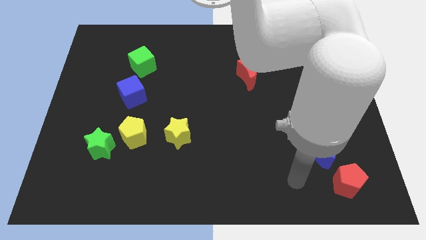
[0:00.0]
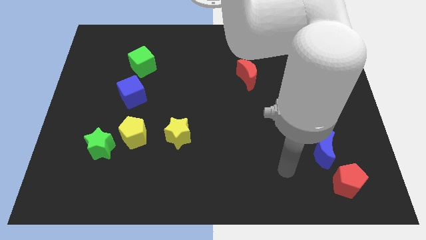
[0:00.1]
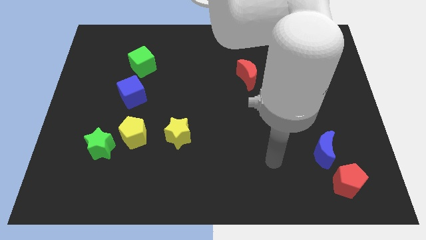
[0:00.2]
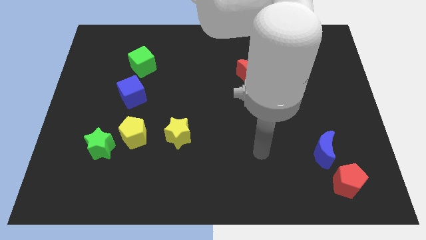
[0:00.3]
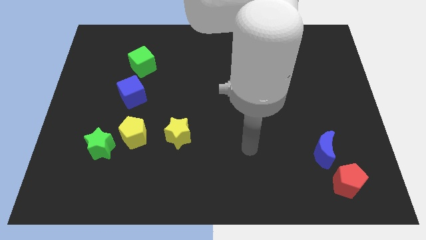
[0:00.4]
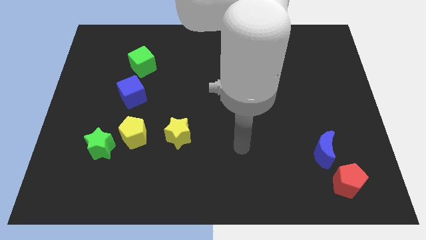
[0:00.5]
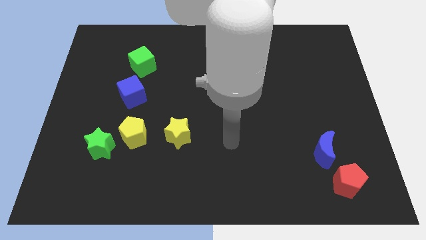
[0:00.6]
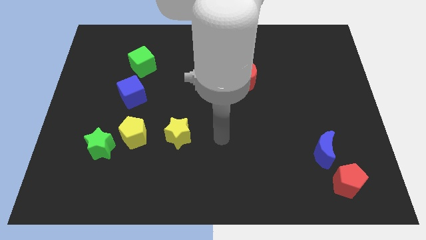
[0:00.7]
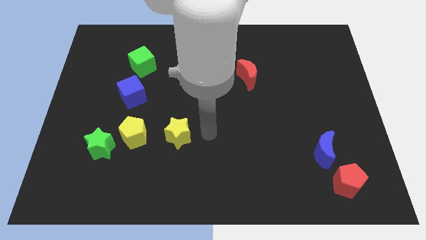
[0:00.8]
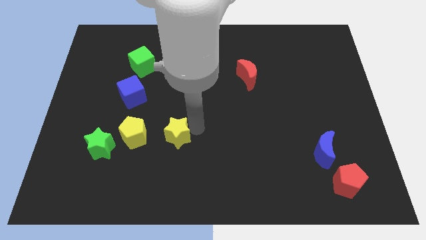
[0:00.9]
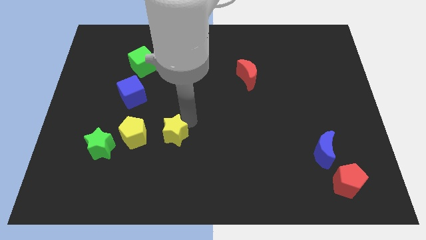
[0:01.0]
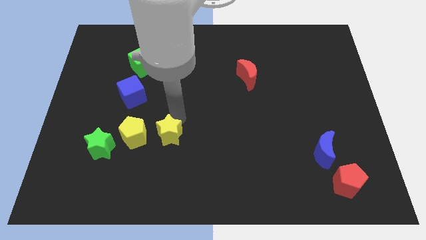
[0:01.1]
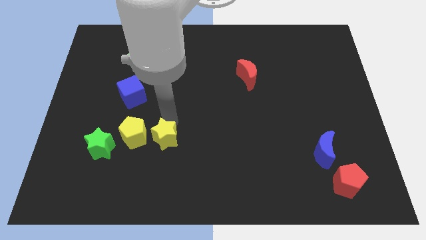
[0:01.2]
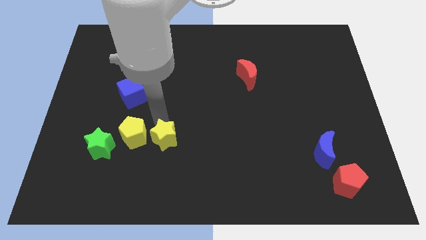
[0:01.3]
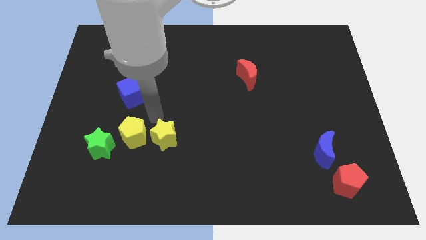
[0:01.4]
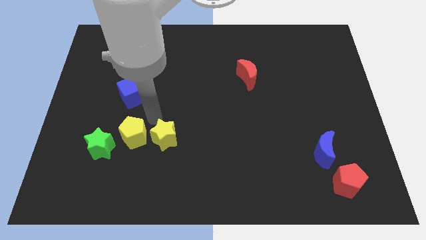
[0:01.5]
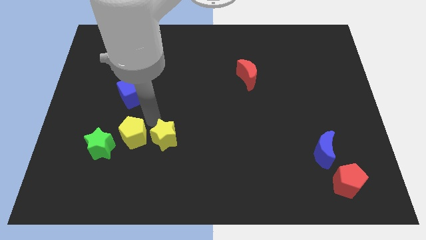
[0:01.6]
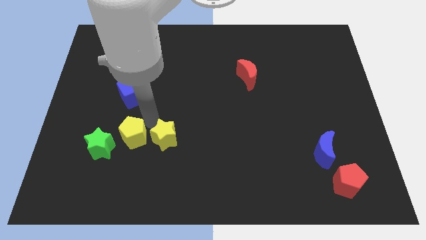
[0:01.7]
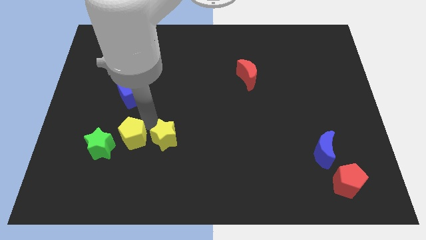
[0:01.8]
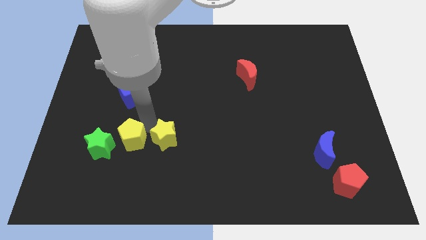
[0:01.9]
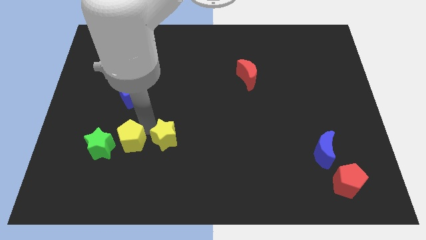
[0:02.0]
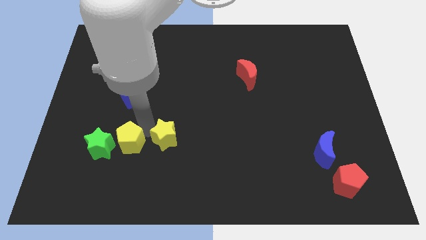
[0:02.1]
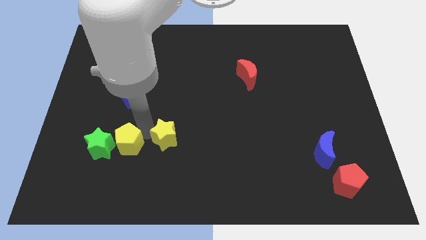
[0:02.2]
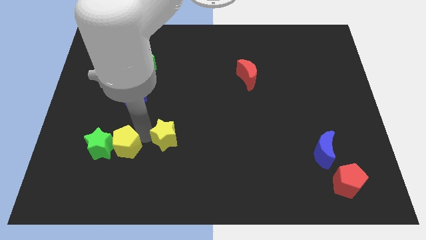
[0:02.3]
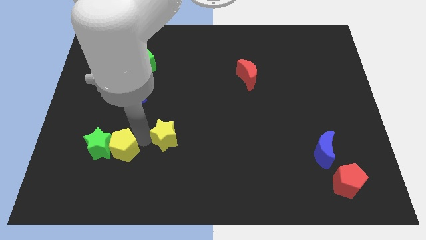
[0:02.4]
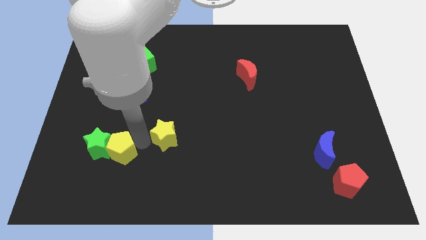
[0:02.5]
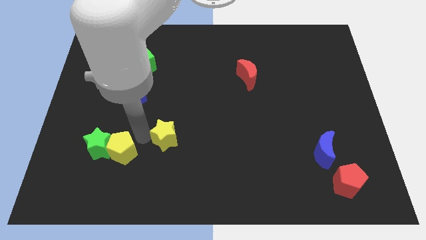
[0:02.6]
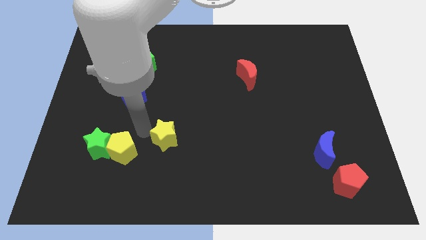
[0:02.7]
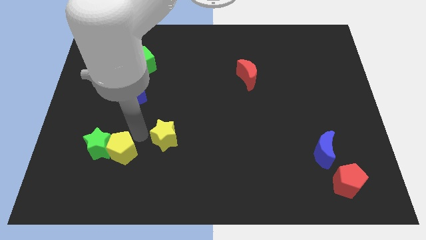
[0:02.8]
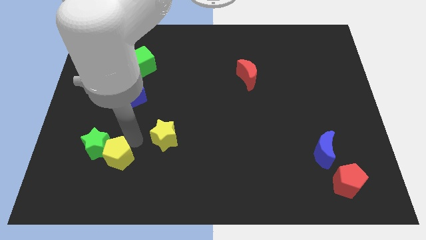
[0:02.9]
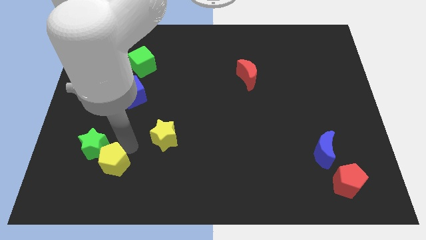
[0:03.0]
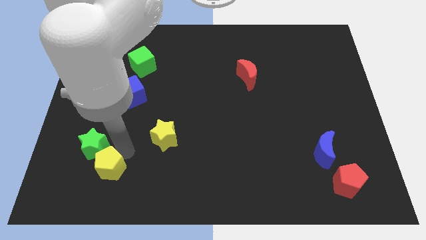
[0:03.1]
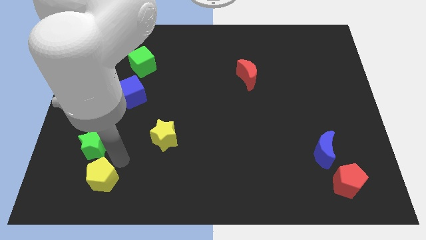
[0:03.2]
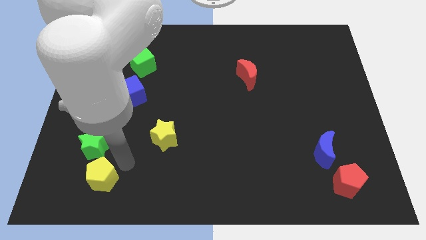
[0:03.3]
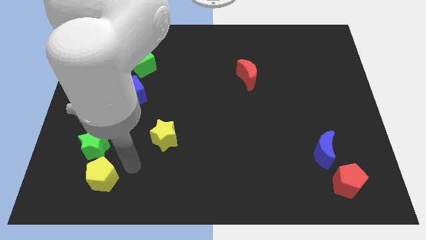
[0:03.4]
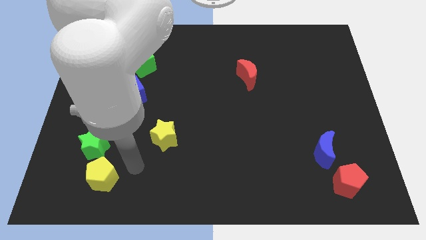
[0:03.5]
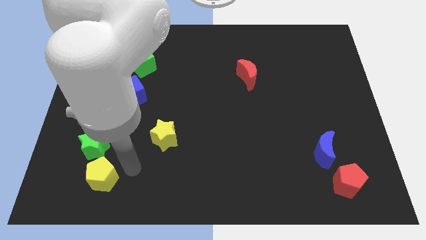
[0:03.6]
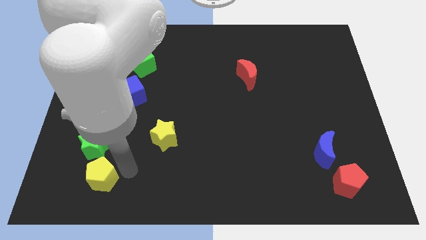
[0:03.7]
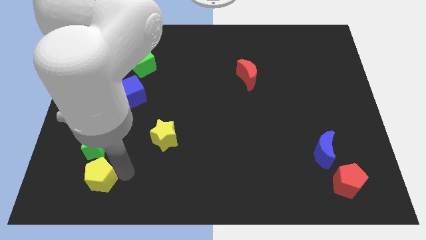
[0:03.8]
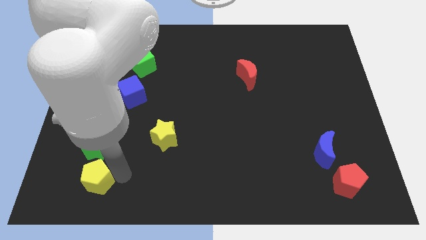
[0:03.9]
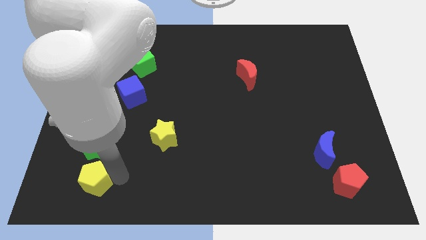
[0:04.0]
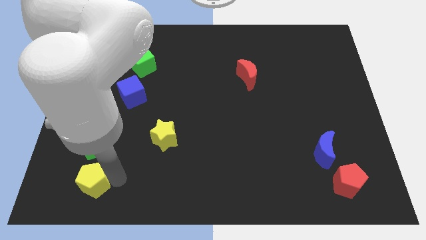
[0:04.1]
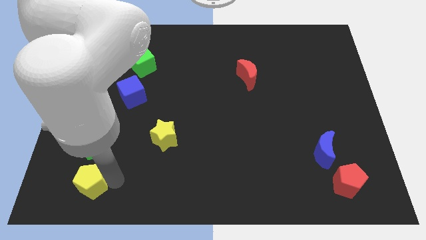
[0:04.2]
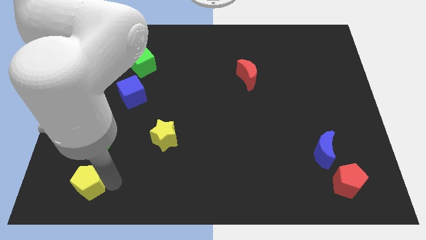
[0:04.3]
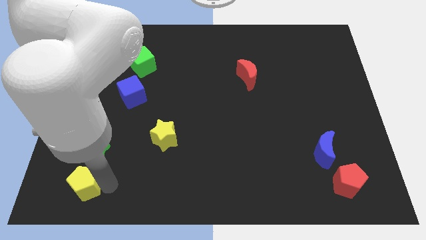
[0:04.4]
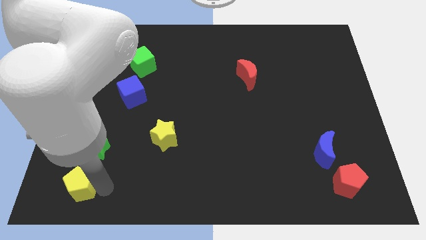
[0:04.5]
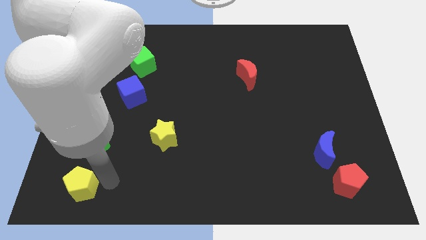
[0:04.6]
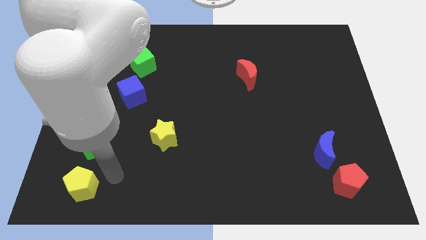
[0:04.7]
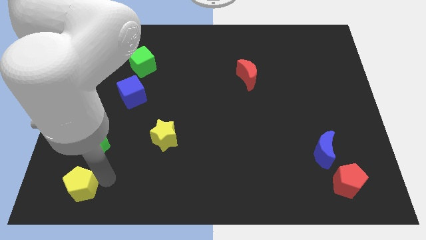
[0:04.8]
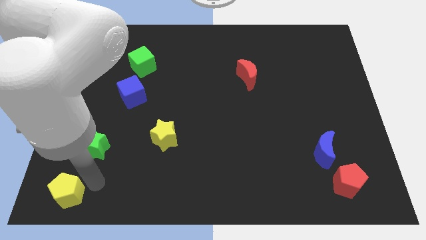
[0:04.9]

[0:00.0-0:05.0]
move the yellow pentagon to the bottom left corner

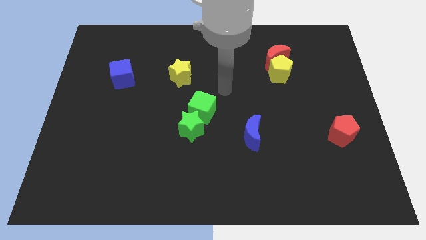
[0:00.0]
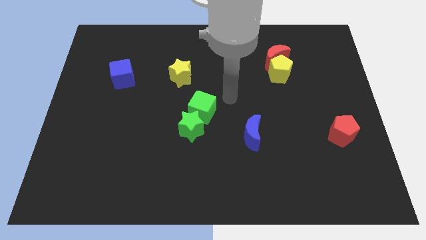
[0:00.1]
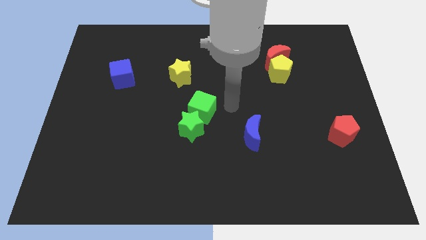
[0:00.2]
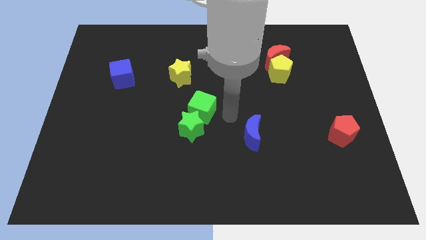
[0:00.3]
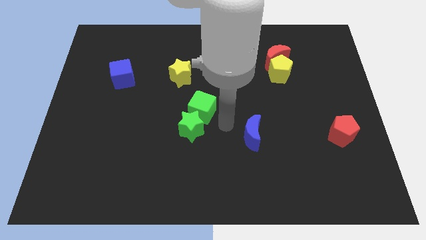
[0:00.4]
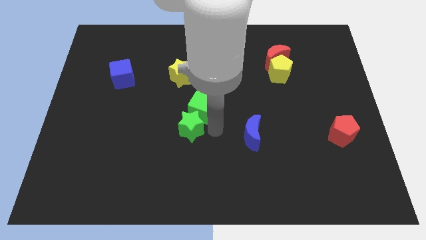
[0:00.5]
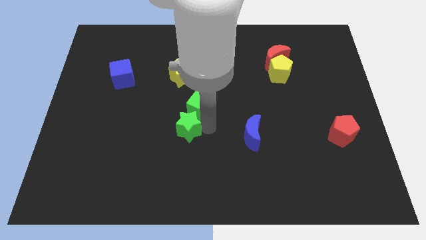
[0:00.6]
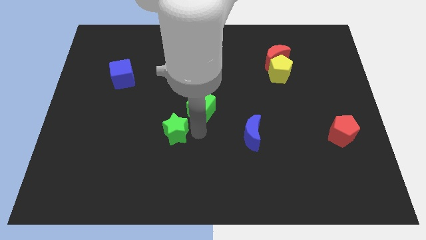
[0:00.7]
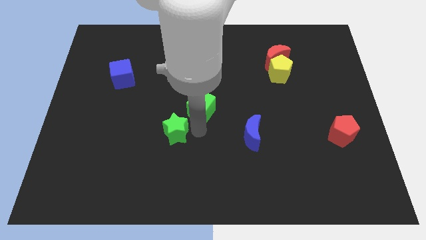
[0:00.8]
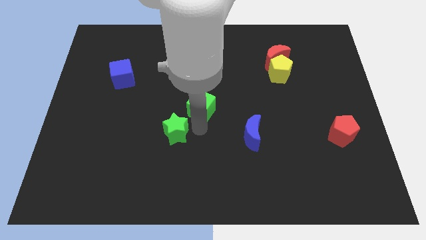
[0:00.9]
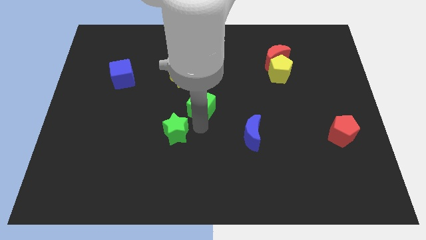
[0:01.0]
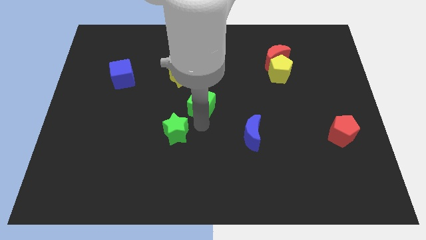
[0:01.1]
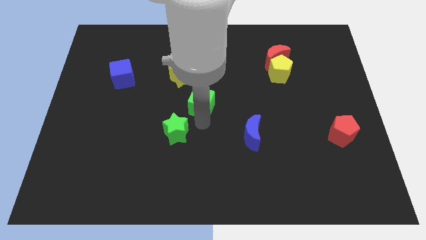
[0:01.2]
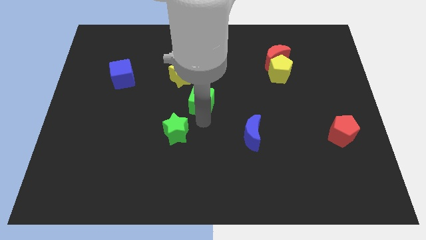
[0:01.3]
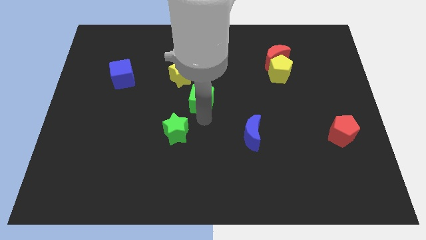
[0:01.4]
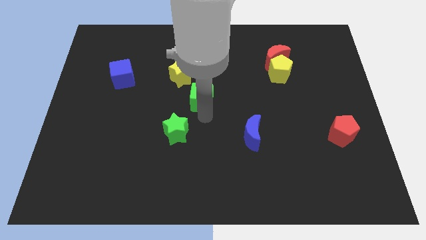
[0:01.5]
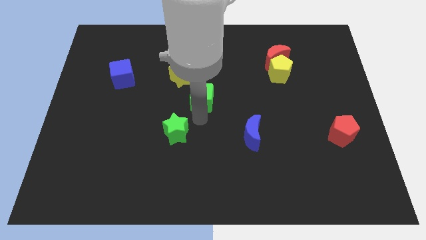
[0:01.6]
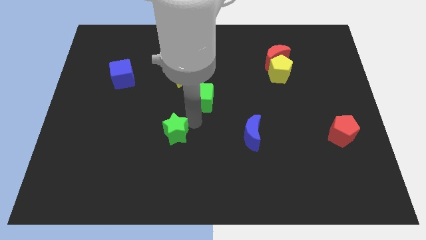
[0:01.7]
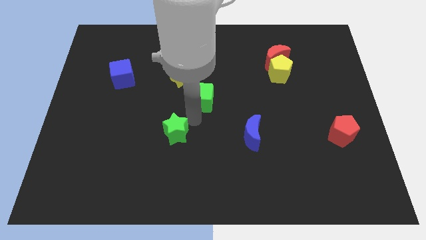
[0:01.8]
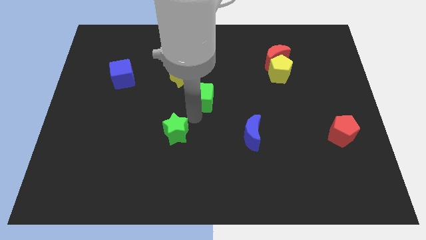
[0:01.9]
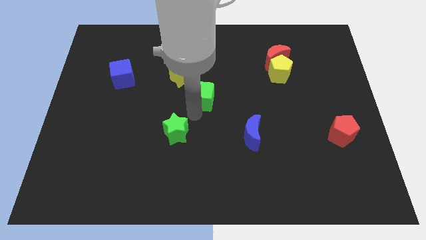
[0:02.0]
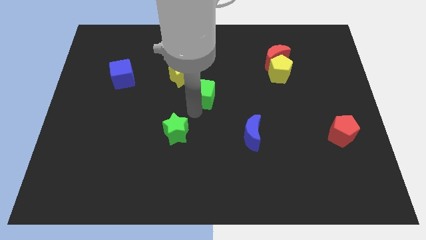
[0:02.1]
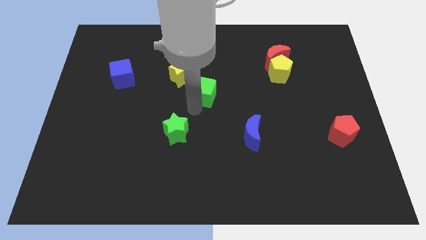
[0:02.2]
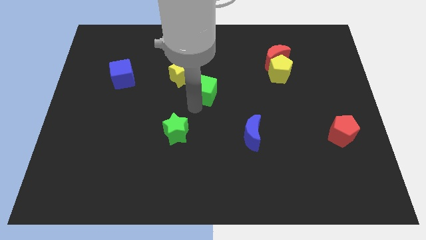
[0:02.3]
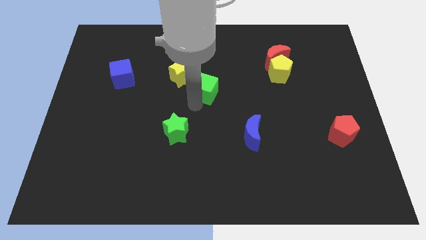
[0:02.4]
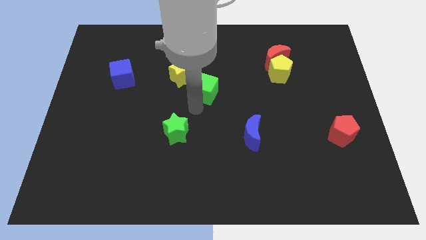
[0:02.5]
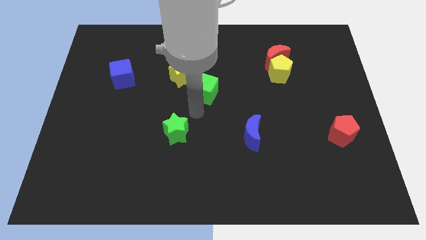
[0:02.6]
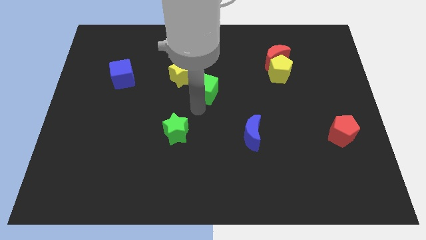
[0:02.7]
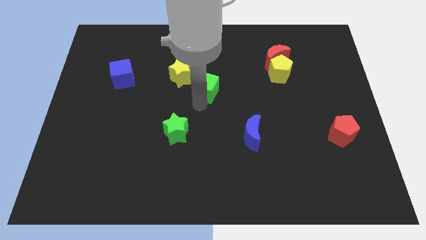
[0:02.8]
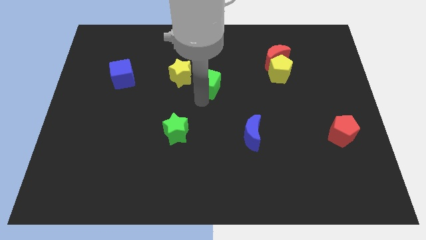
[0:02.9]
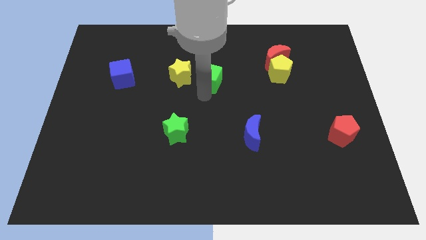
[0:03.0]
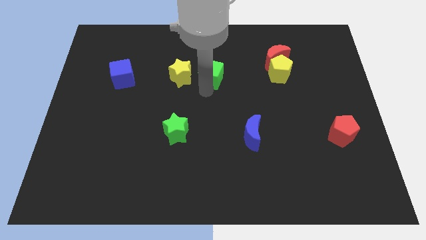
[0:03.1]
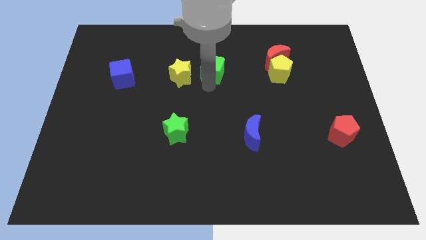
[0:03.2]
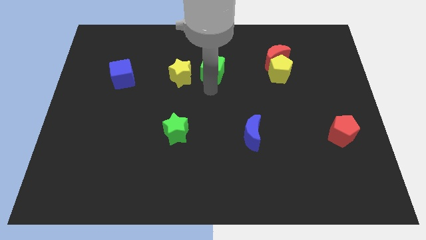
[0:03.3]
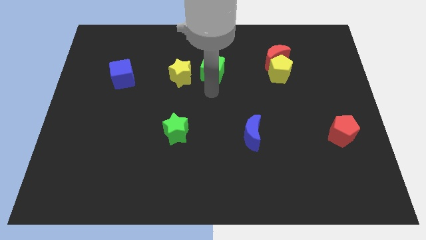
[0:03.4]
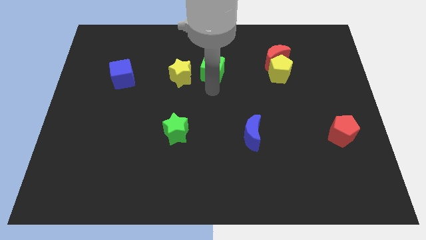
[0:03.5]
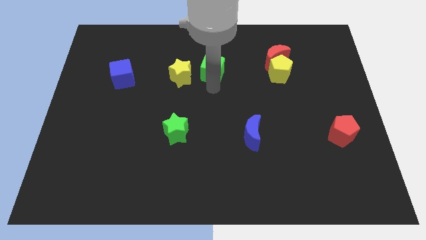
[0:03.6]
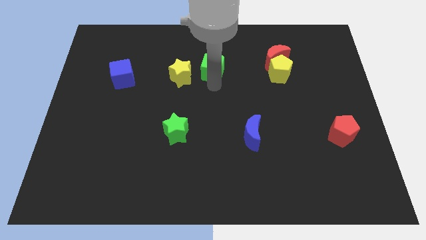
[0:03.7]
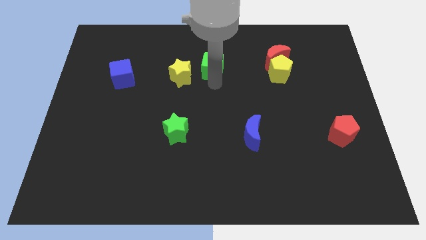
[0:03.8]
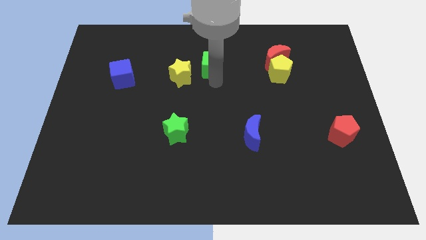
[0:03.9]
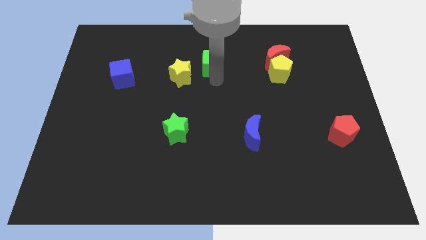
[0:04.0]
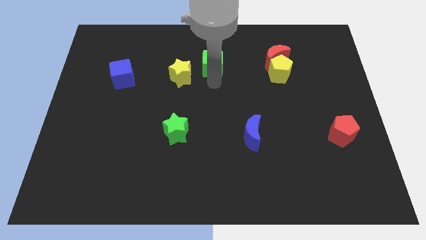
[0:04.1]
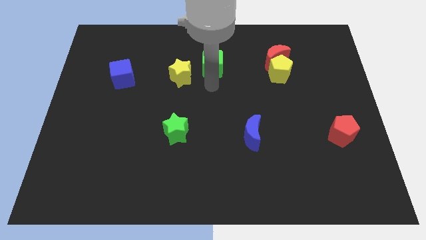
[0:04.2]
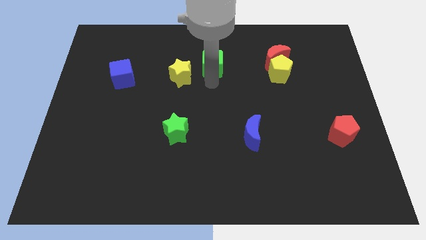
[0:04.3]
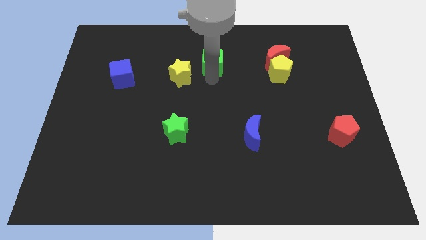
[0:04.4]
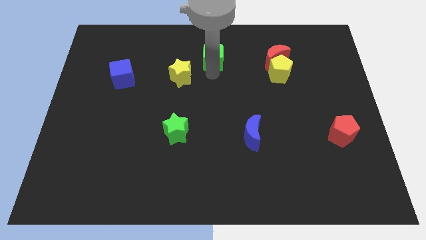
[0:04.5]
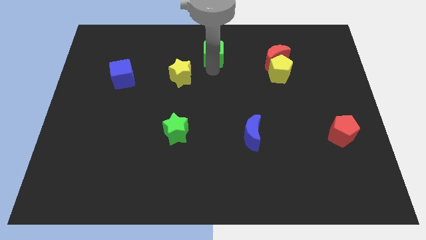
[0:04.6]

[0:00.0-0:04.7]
move the green cube to the towards your base
